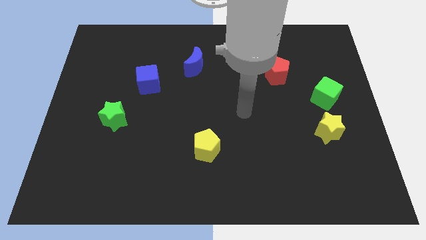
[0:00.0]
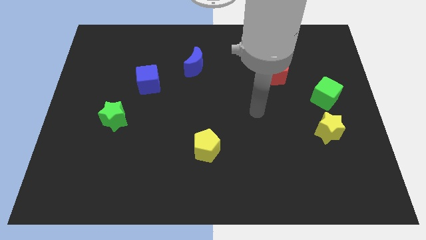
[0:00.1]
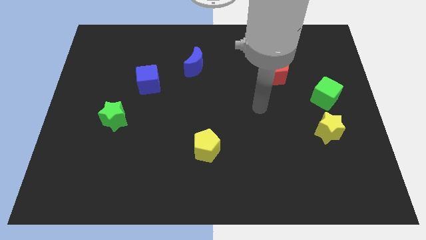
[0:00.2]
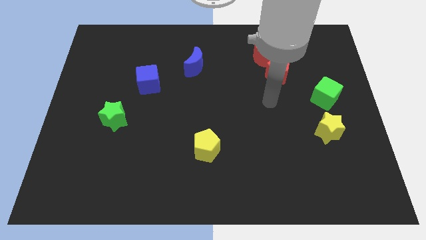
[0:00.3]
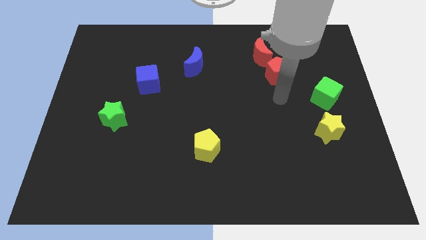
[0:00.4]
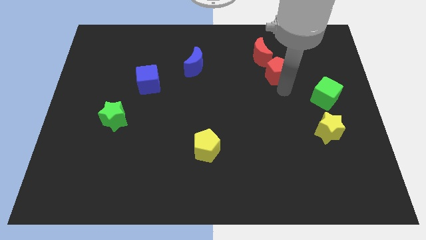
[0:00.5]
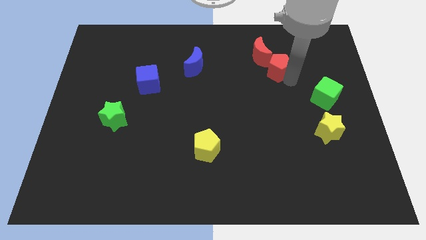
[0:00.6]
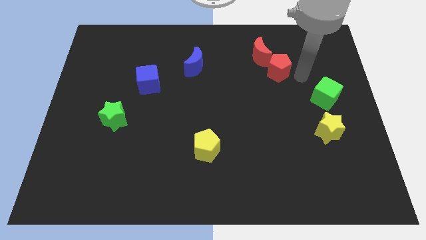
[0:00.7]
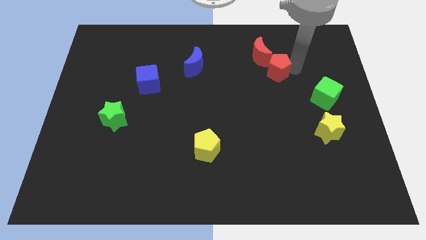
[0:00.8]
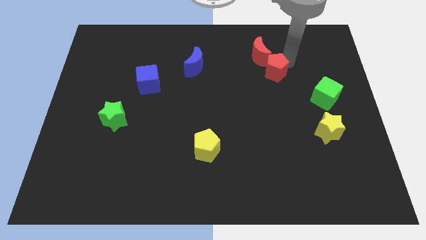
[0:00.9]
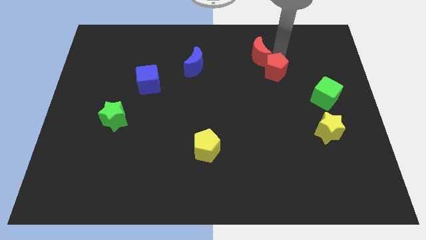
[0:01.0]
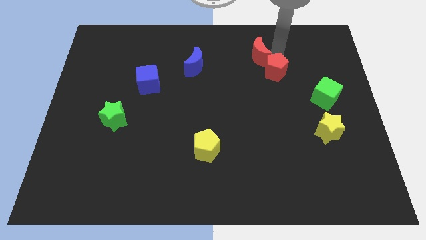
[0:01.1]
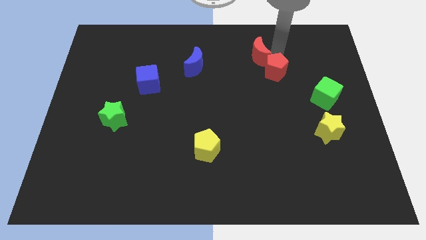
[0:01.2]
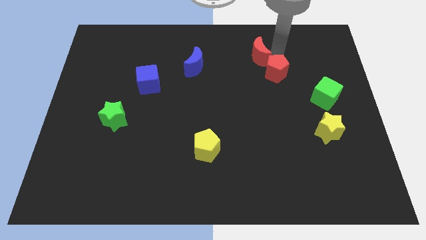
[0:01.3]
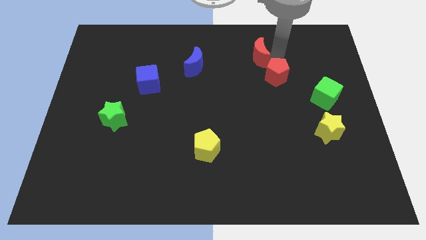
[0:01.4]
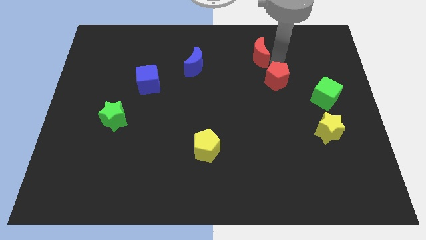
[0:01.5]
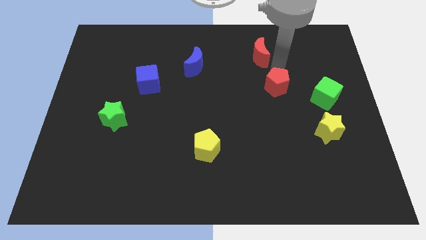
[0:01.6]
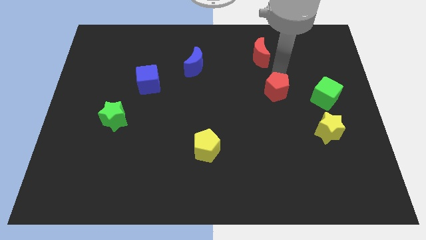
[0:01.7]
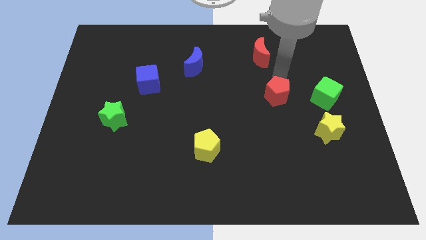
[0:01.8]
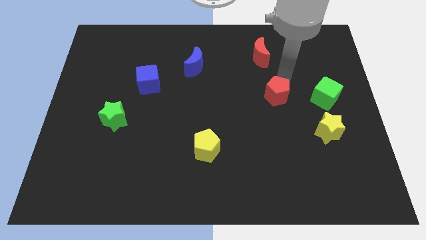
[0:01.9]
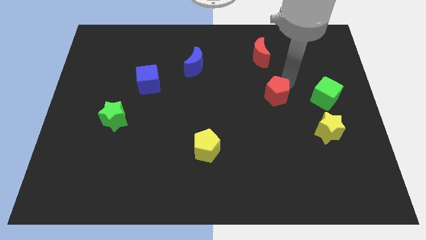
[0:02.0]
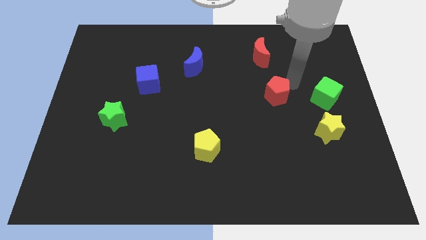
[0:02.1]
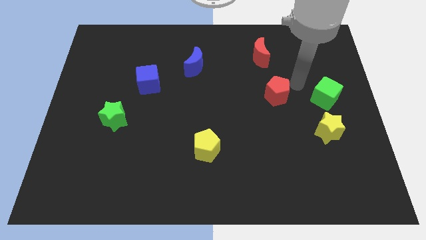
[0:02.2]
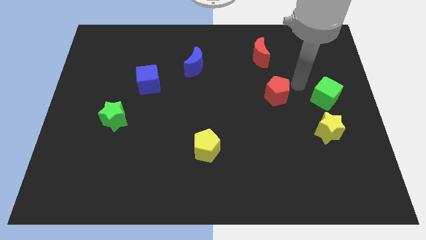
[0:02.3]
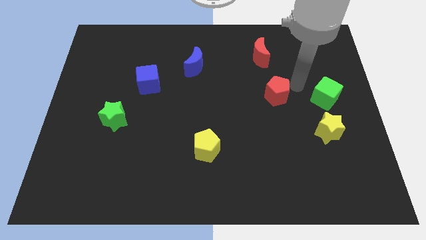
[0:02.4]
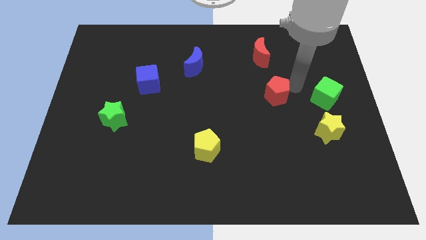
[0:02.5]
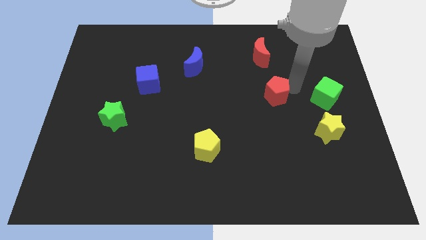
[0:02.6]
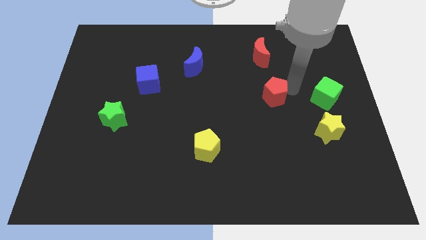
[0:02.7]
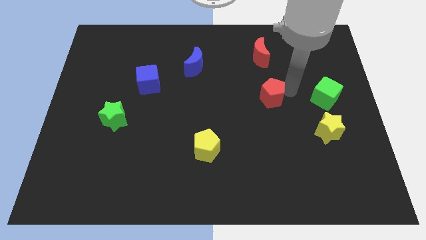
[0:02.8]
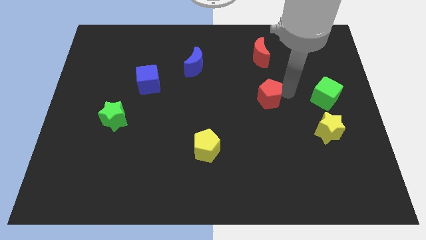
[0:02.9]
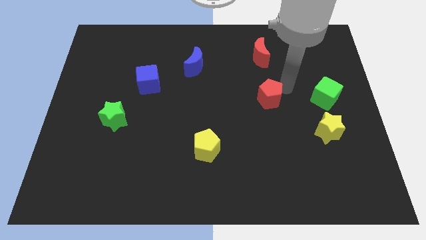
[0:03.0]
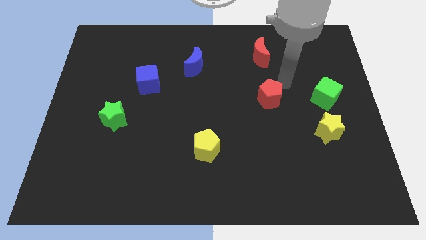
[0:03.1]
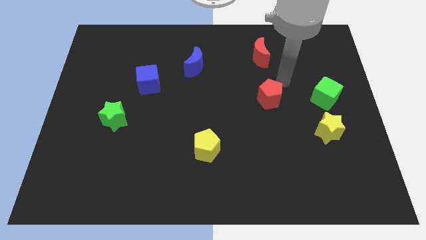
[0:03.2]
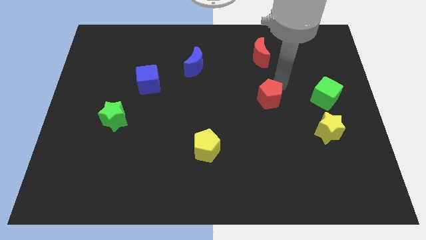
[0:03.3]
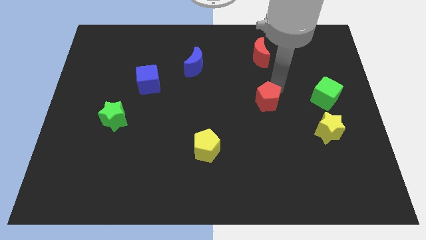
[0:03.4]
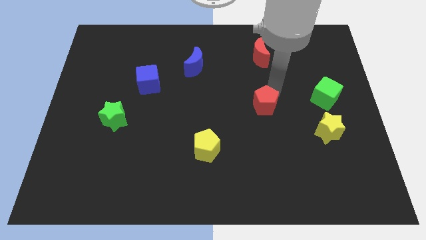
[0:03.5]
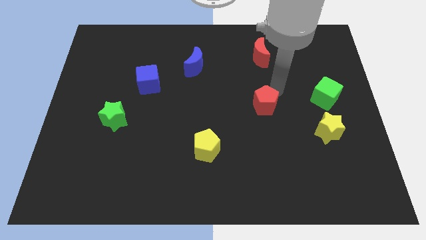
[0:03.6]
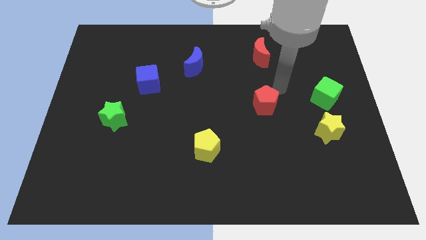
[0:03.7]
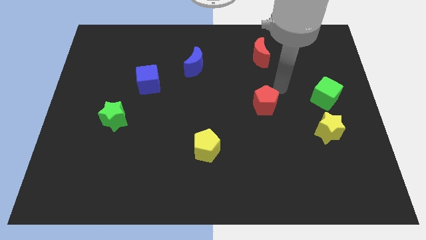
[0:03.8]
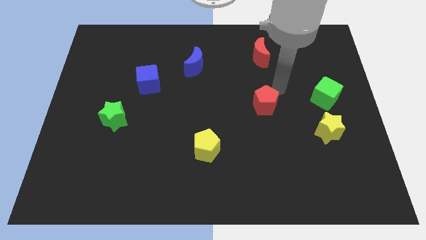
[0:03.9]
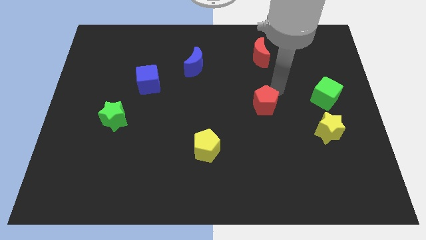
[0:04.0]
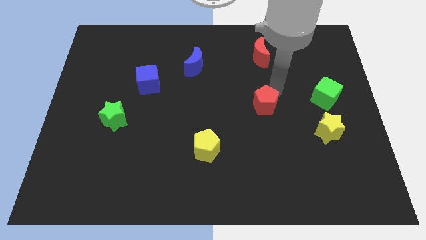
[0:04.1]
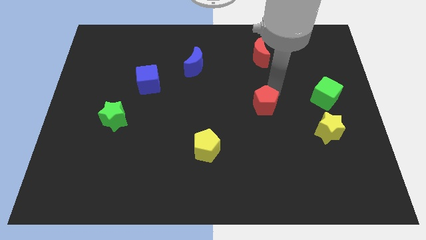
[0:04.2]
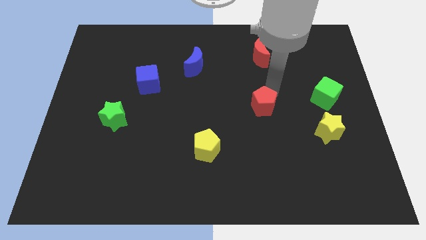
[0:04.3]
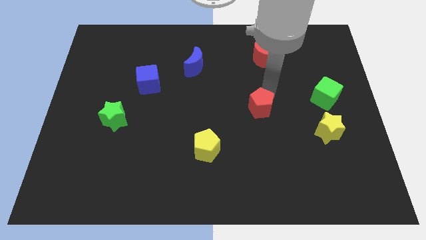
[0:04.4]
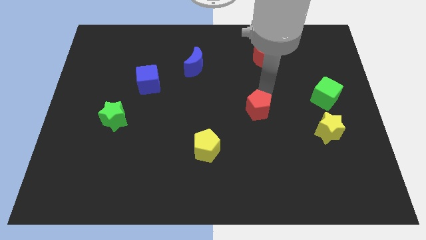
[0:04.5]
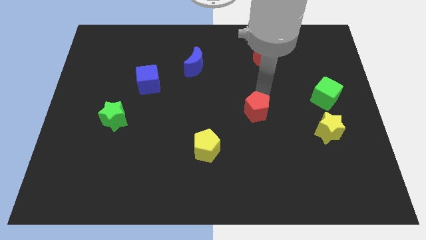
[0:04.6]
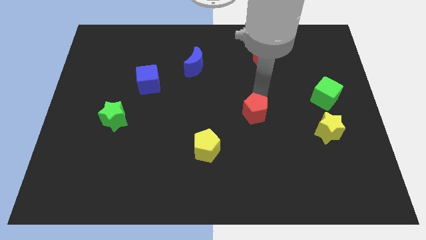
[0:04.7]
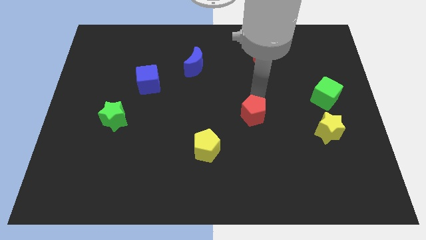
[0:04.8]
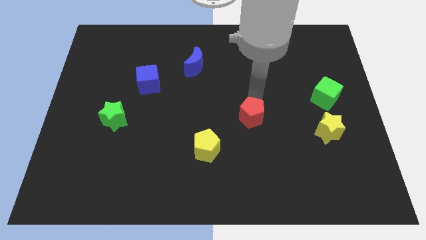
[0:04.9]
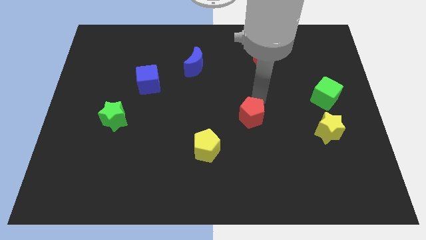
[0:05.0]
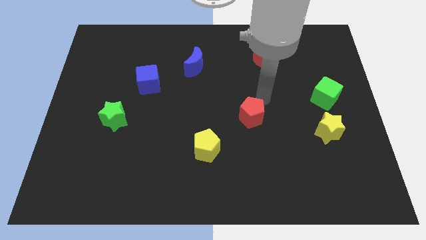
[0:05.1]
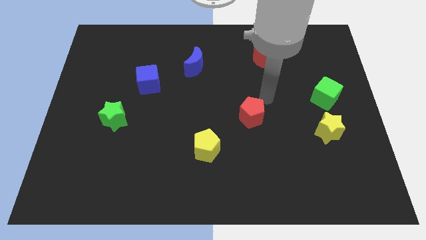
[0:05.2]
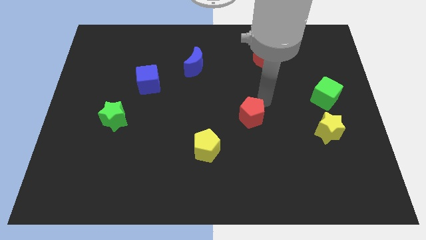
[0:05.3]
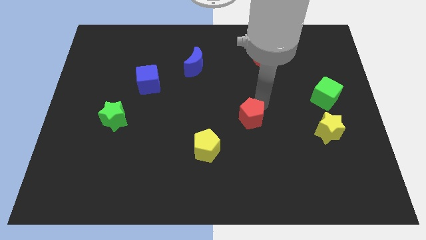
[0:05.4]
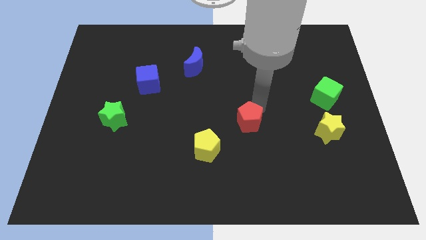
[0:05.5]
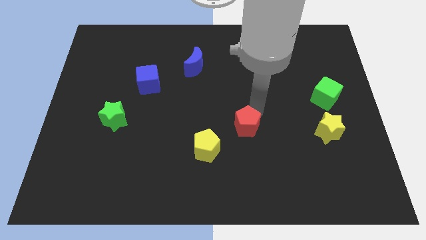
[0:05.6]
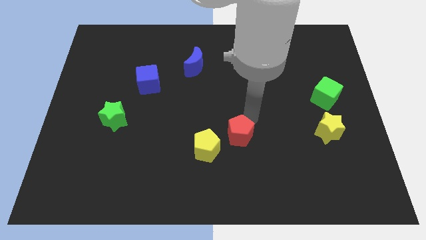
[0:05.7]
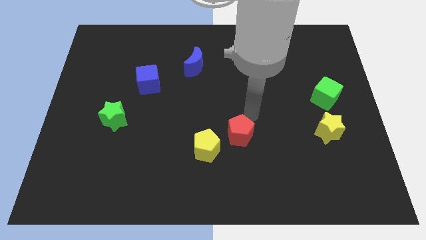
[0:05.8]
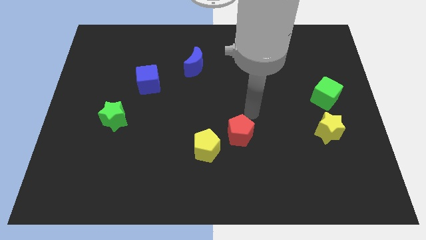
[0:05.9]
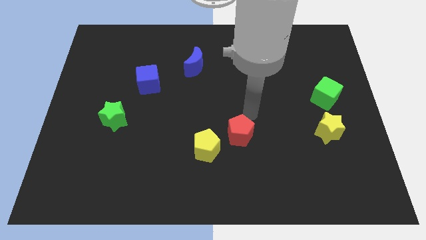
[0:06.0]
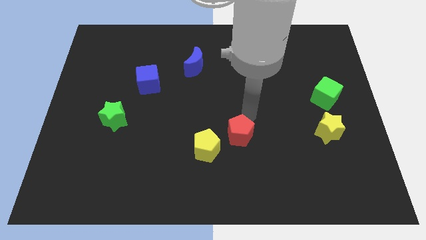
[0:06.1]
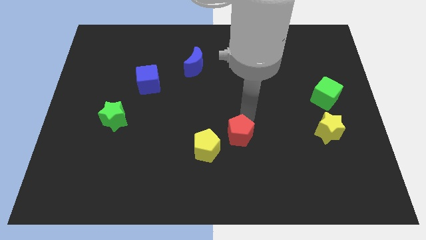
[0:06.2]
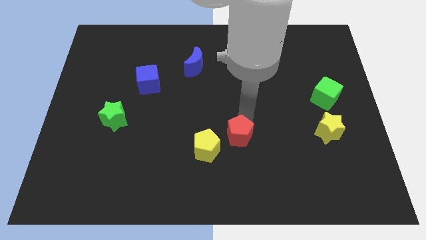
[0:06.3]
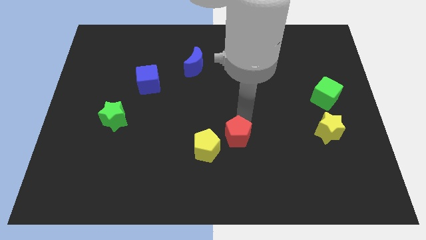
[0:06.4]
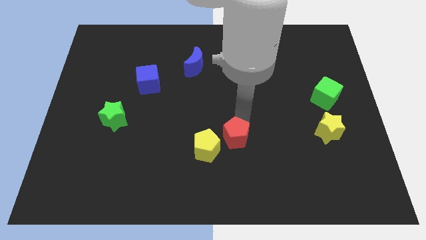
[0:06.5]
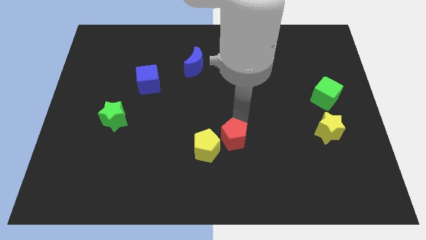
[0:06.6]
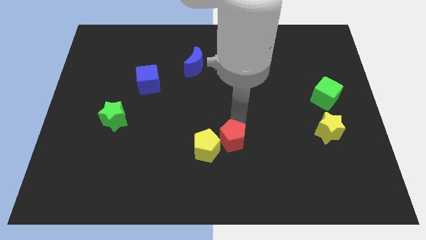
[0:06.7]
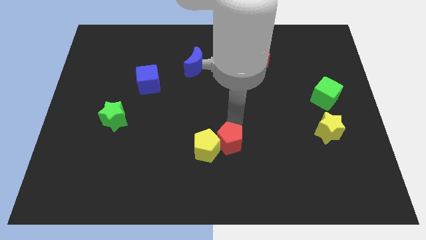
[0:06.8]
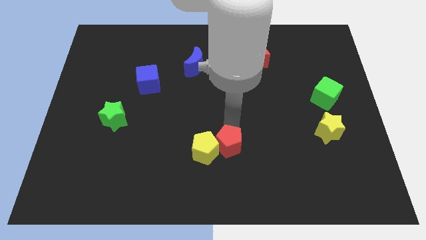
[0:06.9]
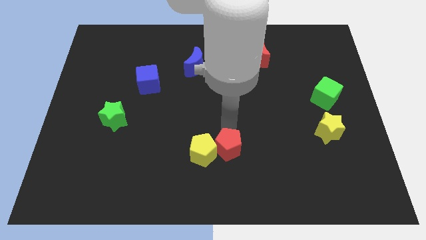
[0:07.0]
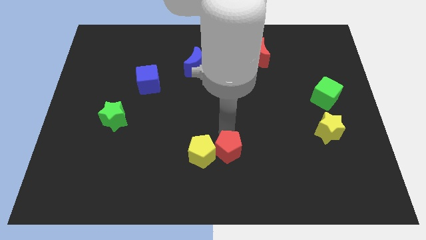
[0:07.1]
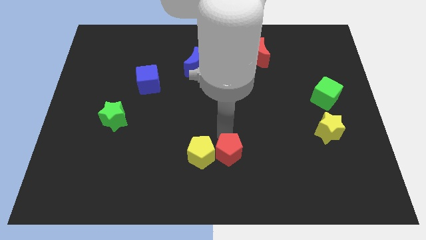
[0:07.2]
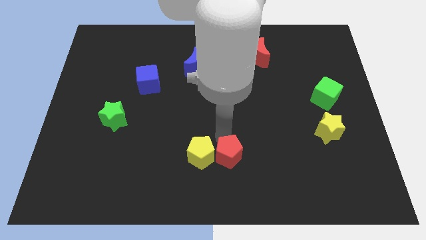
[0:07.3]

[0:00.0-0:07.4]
put the red pentagon to the bottom
